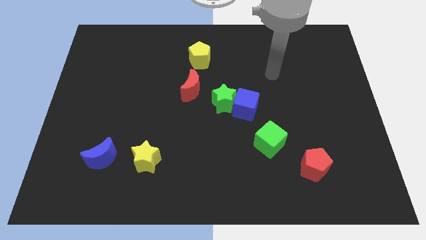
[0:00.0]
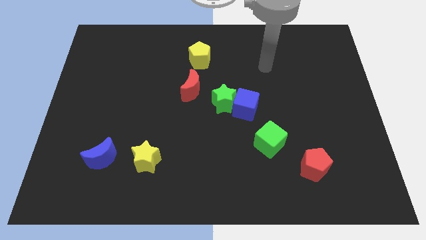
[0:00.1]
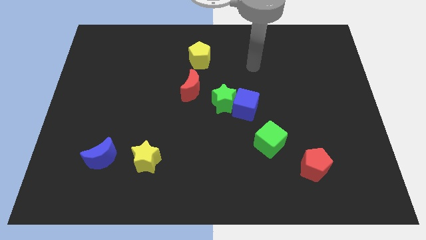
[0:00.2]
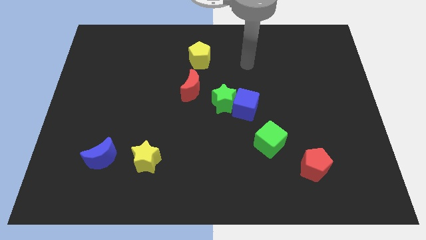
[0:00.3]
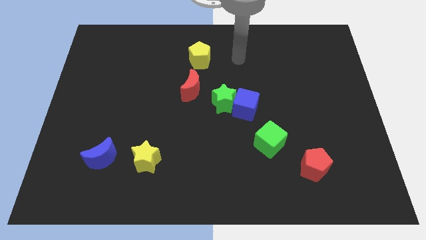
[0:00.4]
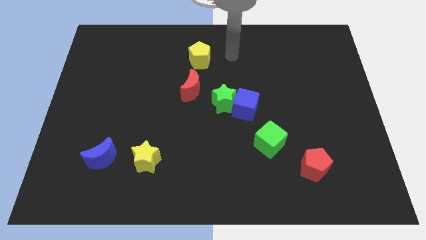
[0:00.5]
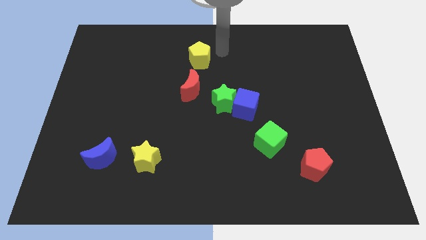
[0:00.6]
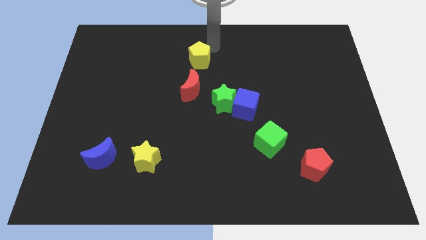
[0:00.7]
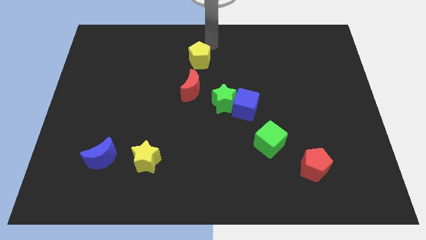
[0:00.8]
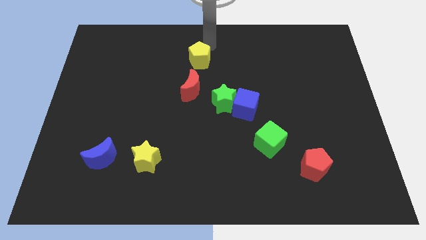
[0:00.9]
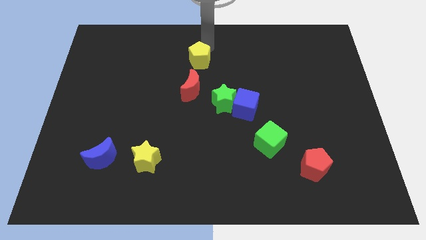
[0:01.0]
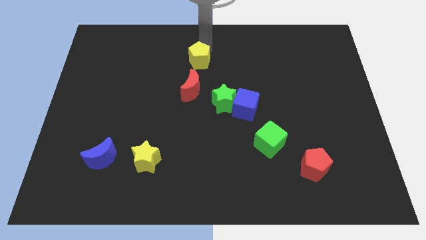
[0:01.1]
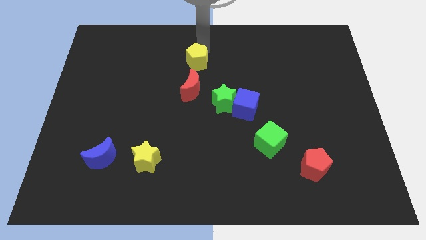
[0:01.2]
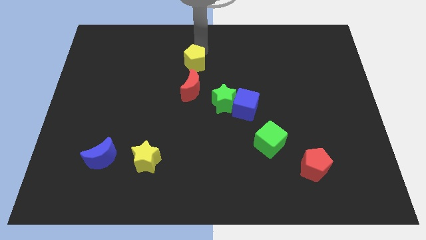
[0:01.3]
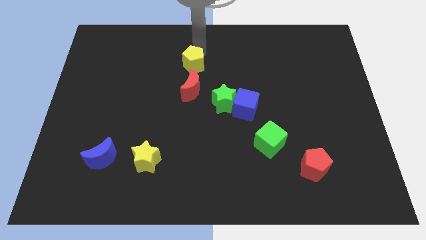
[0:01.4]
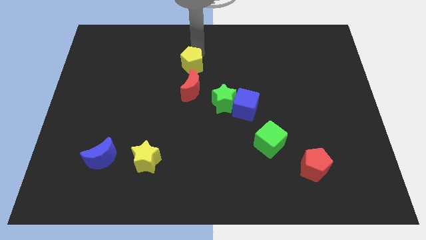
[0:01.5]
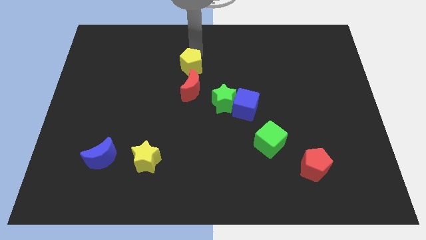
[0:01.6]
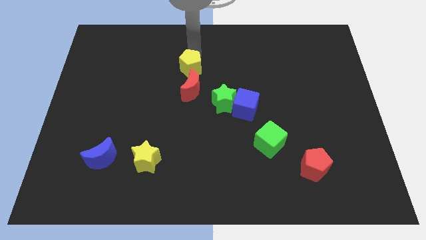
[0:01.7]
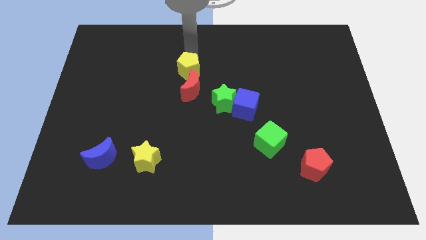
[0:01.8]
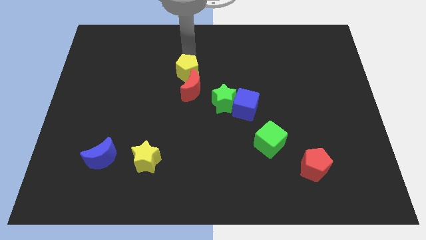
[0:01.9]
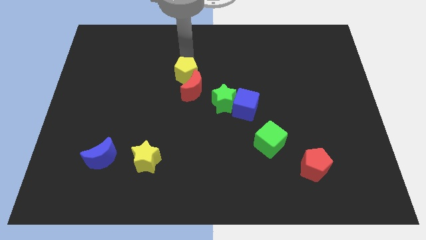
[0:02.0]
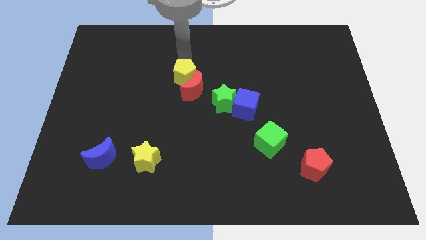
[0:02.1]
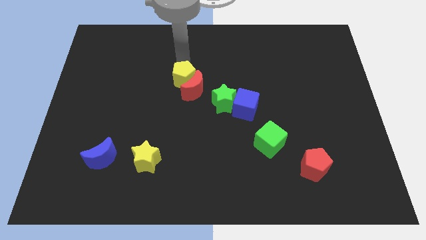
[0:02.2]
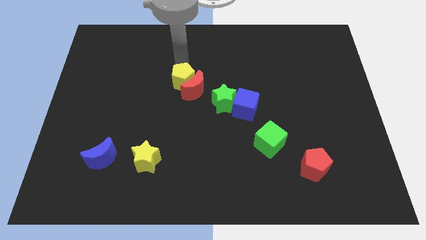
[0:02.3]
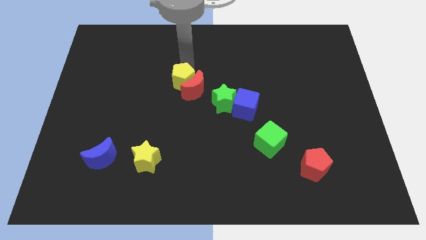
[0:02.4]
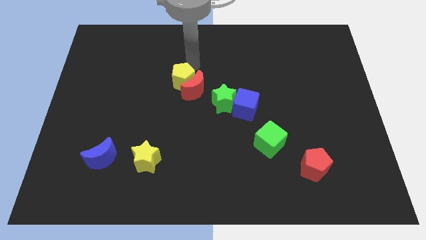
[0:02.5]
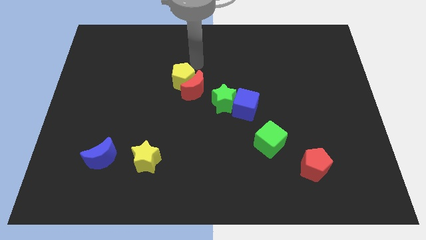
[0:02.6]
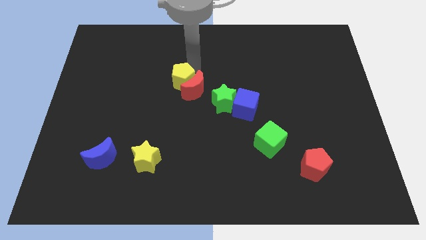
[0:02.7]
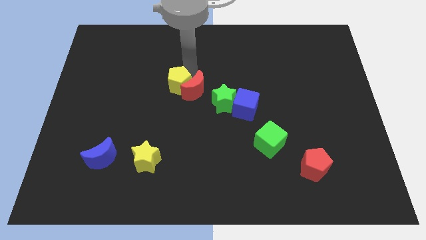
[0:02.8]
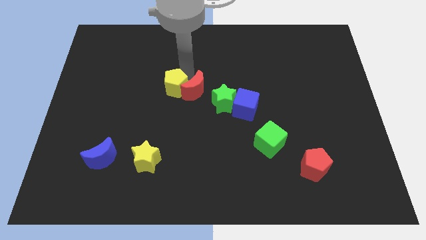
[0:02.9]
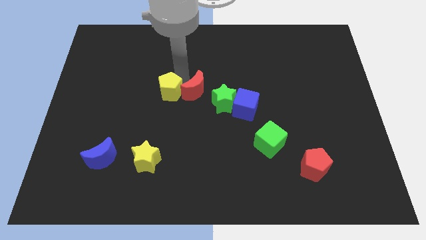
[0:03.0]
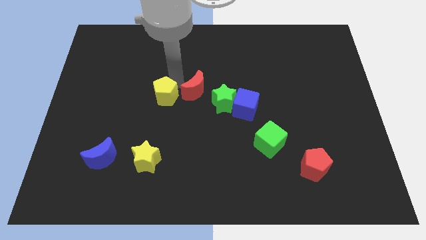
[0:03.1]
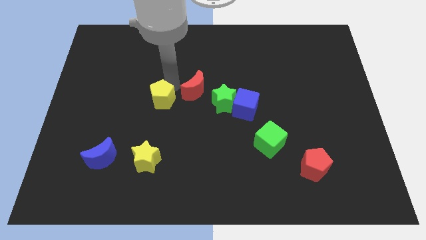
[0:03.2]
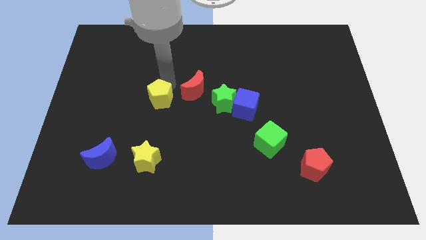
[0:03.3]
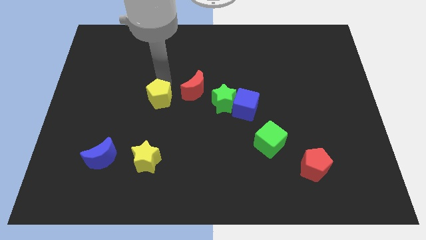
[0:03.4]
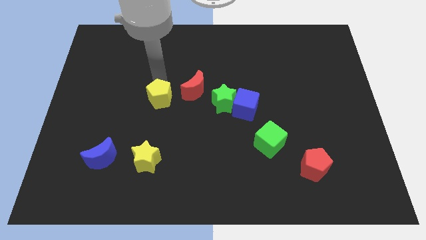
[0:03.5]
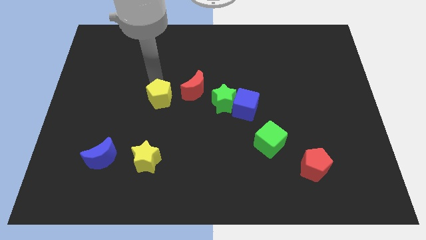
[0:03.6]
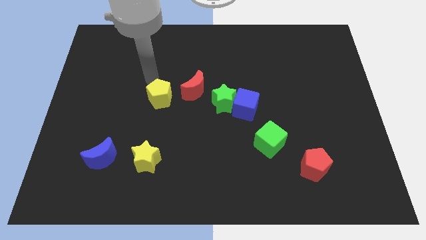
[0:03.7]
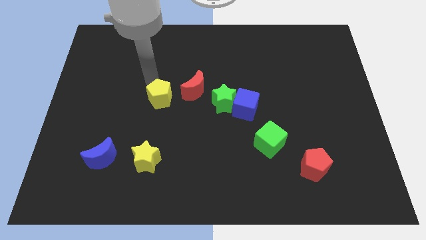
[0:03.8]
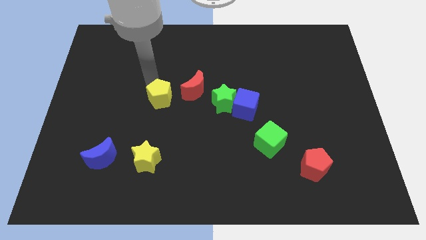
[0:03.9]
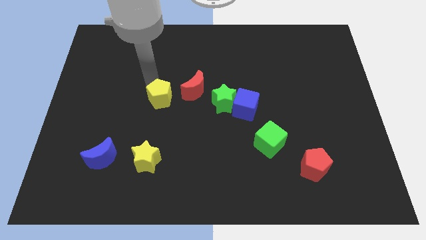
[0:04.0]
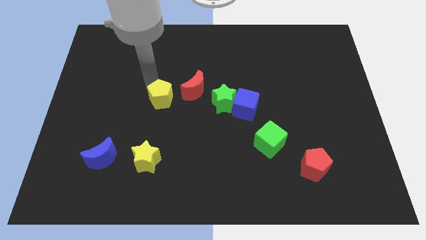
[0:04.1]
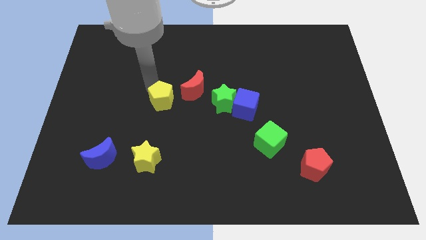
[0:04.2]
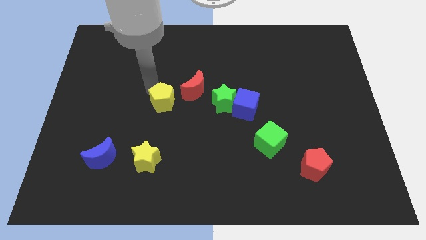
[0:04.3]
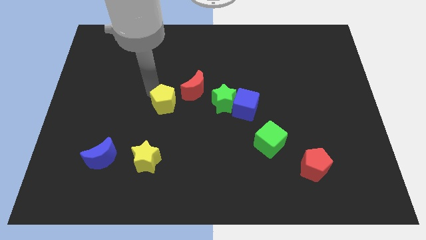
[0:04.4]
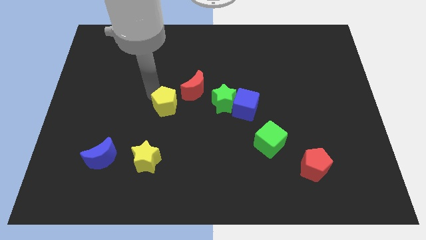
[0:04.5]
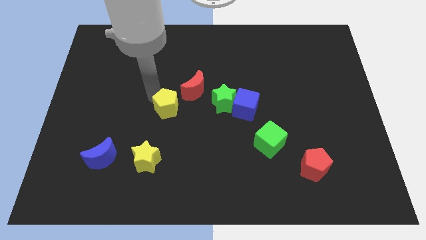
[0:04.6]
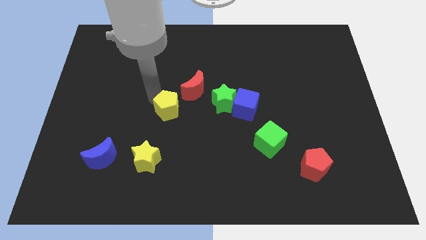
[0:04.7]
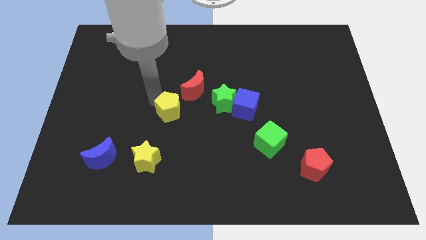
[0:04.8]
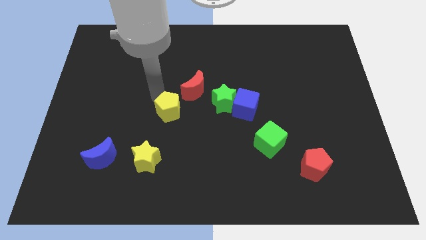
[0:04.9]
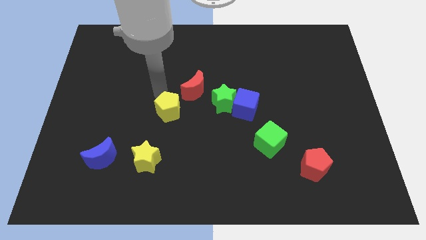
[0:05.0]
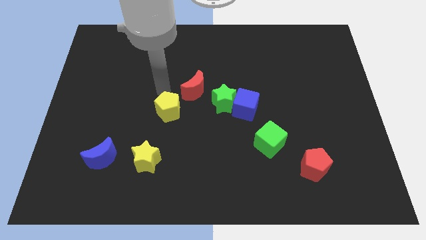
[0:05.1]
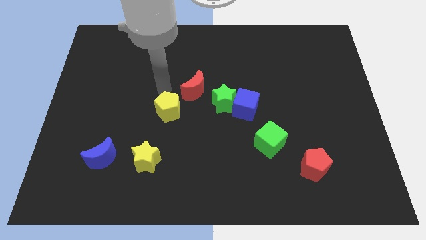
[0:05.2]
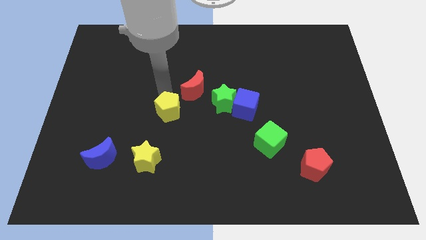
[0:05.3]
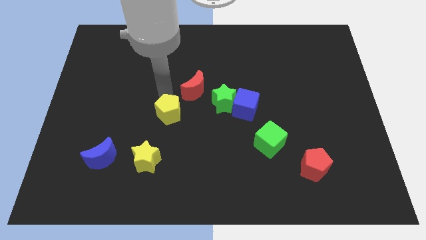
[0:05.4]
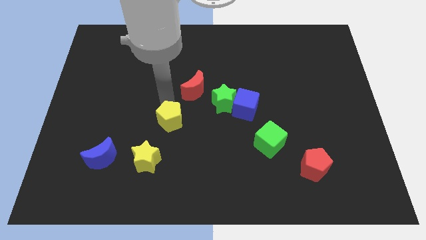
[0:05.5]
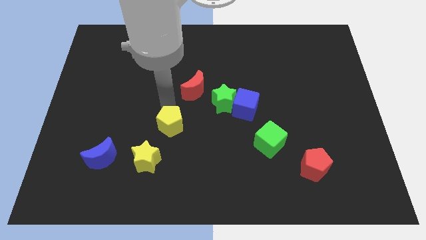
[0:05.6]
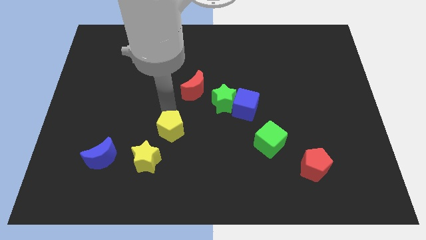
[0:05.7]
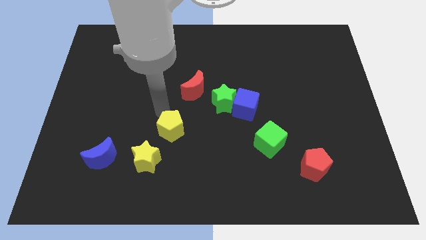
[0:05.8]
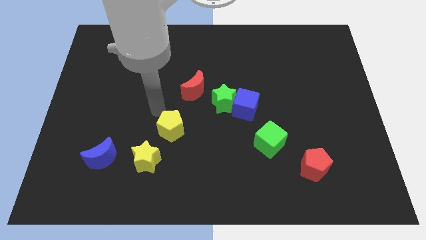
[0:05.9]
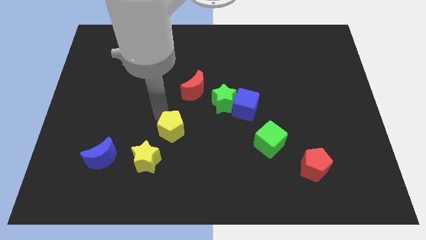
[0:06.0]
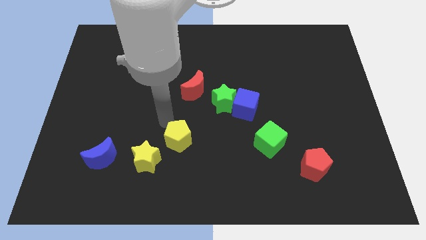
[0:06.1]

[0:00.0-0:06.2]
slide the yellow pentagon just right of the yellow star
